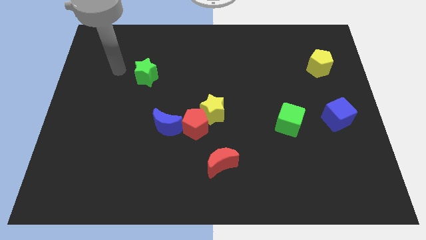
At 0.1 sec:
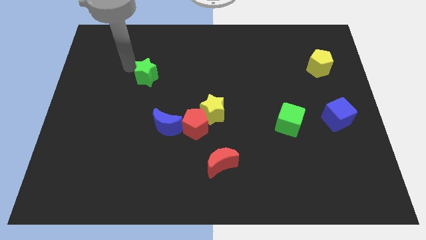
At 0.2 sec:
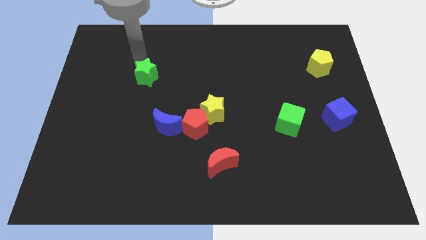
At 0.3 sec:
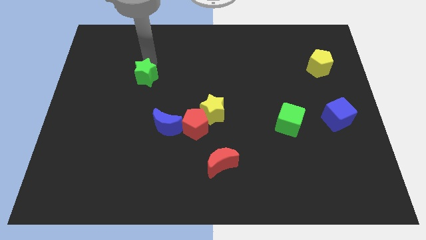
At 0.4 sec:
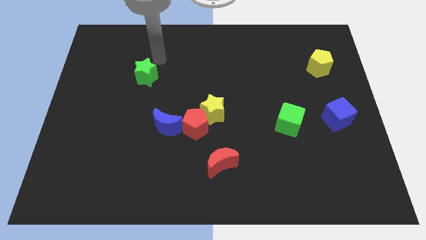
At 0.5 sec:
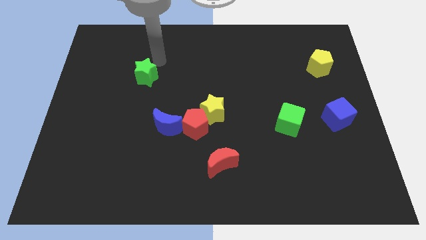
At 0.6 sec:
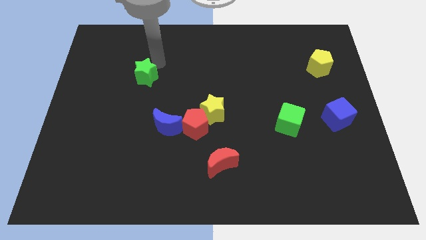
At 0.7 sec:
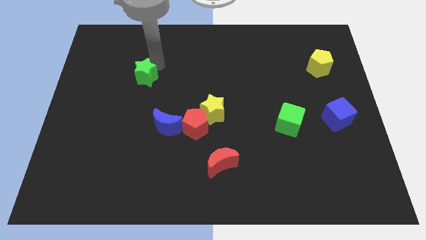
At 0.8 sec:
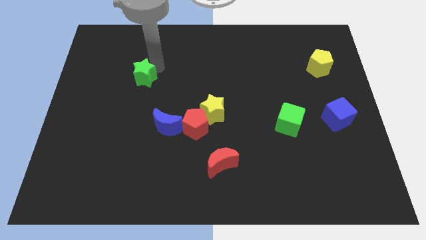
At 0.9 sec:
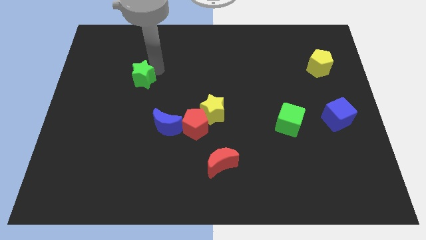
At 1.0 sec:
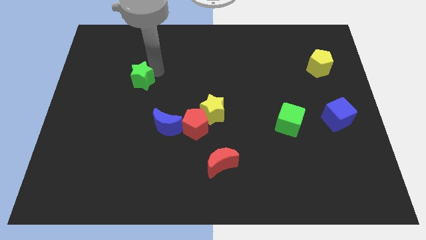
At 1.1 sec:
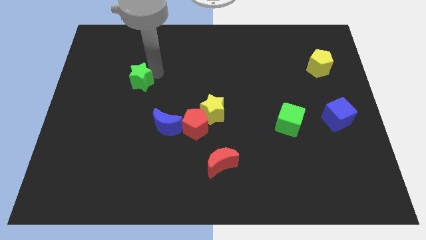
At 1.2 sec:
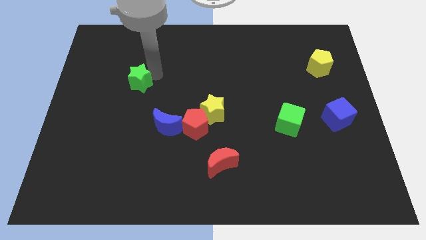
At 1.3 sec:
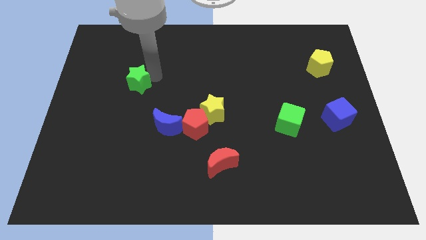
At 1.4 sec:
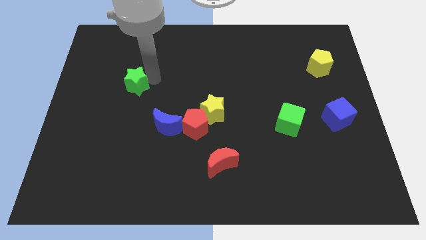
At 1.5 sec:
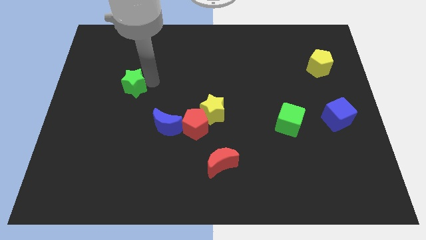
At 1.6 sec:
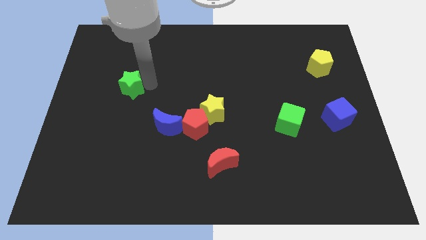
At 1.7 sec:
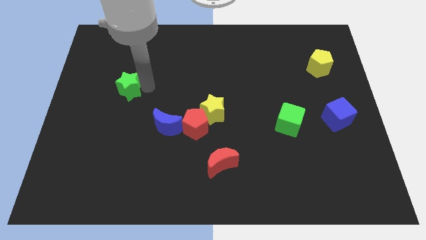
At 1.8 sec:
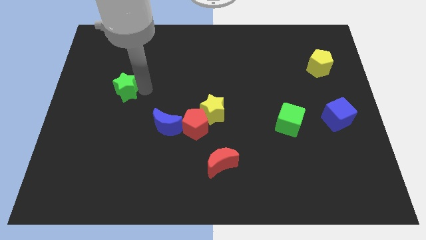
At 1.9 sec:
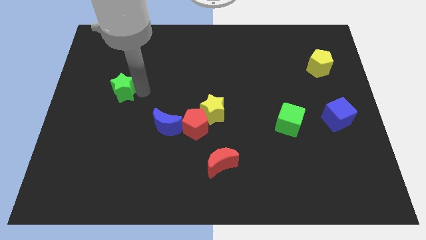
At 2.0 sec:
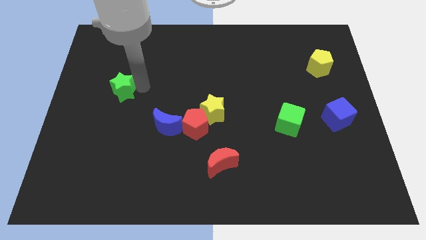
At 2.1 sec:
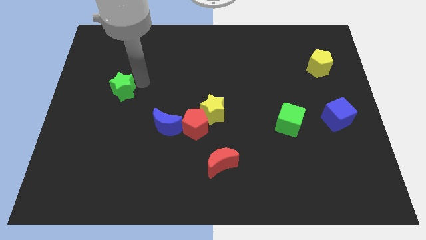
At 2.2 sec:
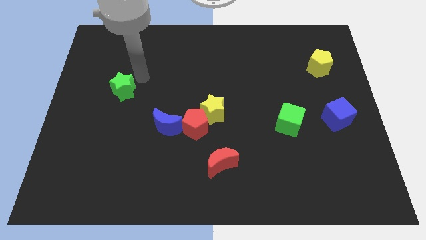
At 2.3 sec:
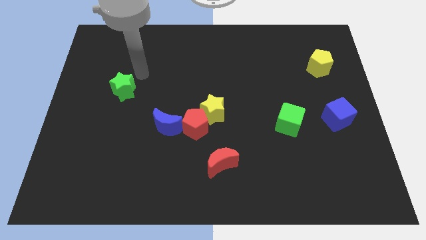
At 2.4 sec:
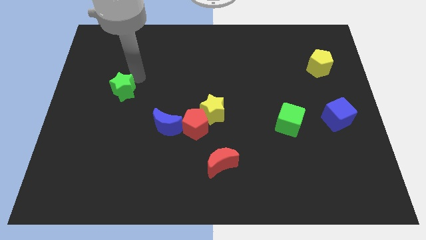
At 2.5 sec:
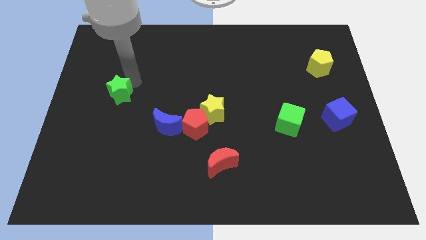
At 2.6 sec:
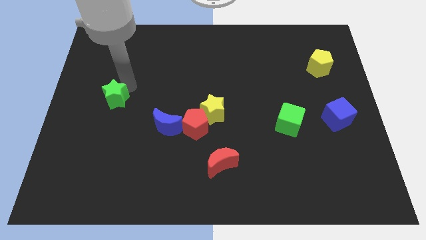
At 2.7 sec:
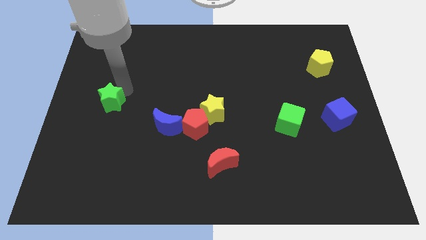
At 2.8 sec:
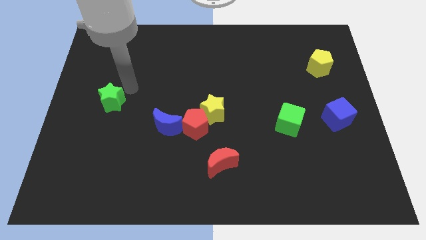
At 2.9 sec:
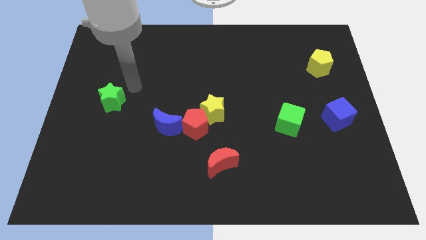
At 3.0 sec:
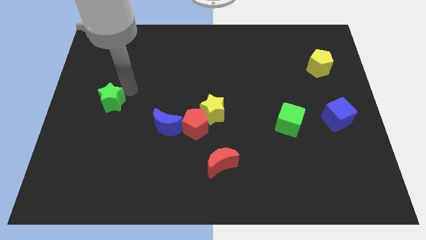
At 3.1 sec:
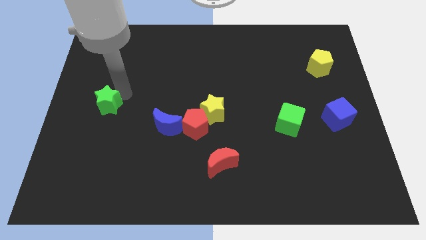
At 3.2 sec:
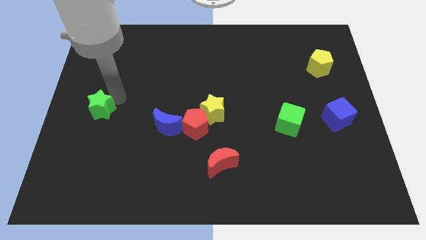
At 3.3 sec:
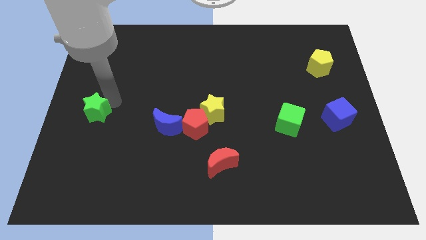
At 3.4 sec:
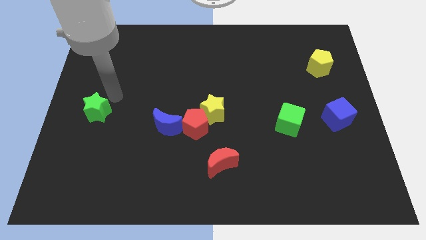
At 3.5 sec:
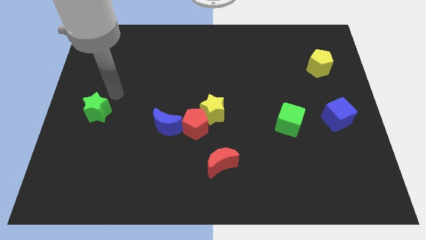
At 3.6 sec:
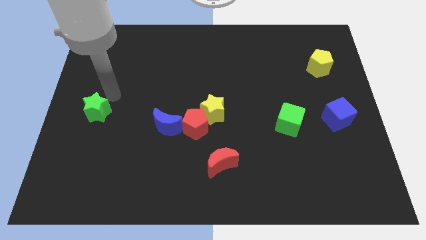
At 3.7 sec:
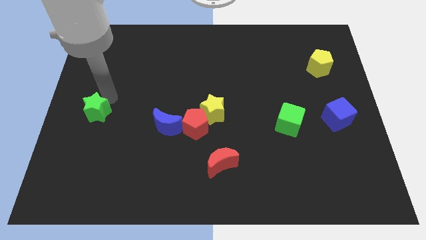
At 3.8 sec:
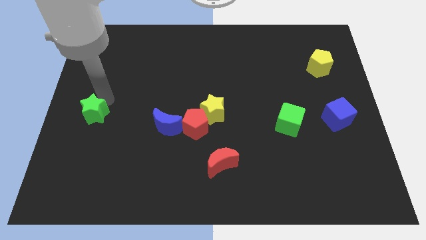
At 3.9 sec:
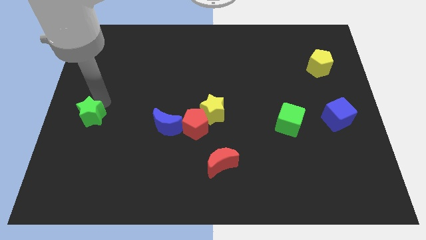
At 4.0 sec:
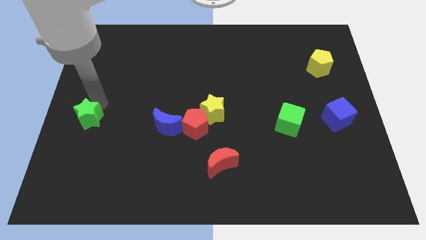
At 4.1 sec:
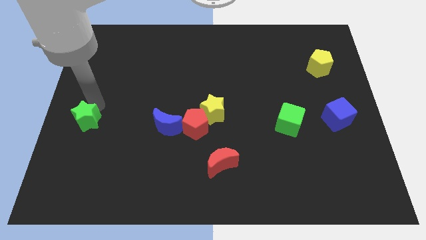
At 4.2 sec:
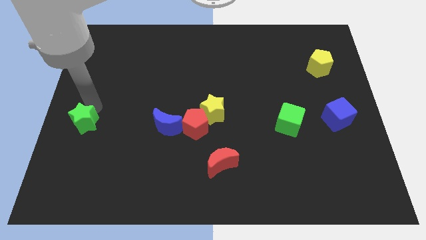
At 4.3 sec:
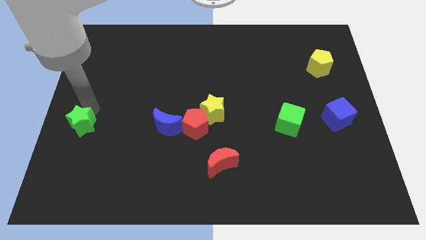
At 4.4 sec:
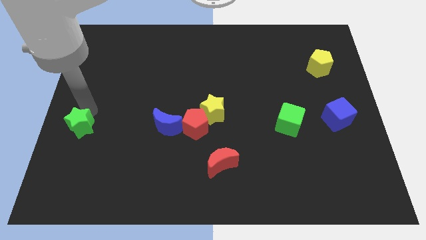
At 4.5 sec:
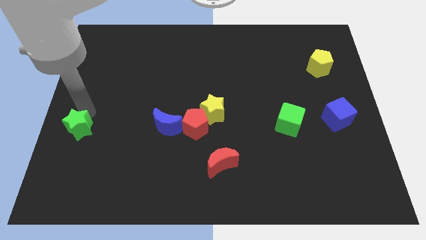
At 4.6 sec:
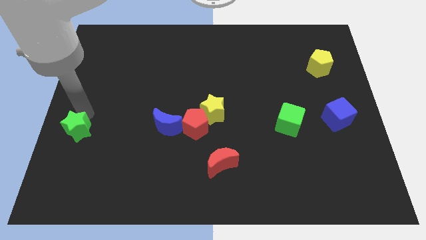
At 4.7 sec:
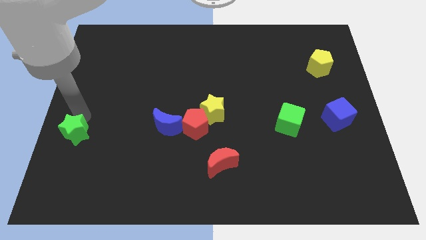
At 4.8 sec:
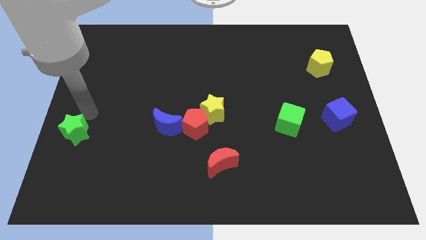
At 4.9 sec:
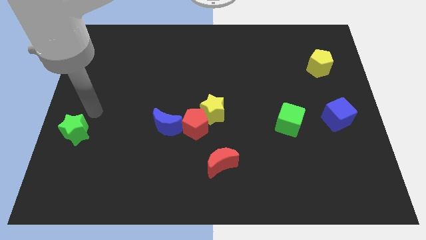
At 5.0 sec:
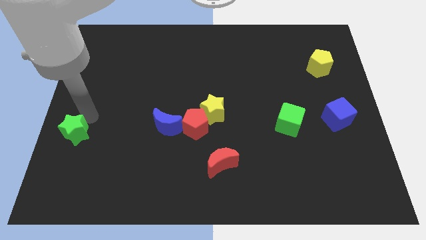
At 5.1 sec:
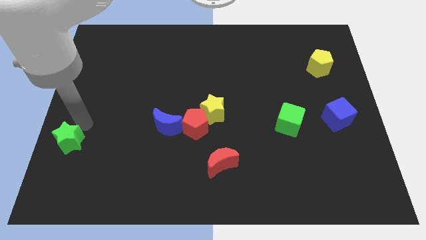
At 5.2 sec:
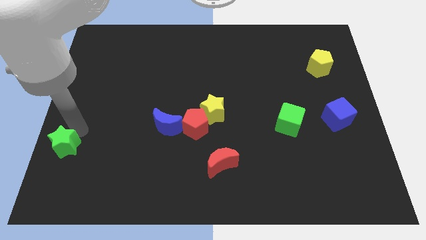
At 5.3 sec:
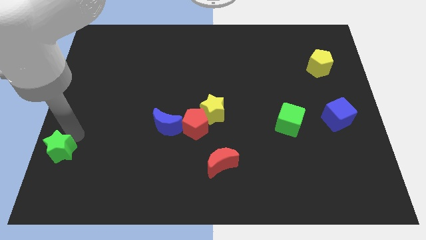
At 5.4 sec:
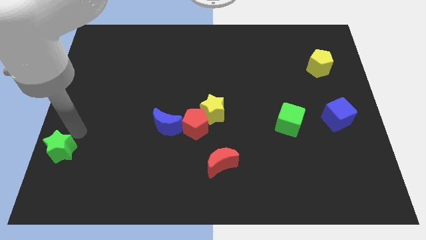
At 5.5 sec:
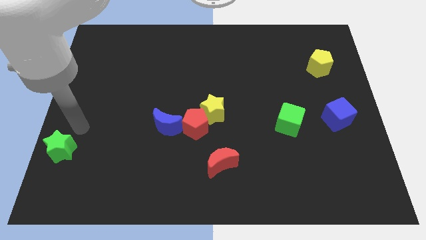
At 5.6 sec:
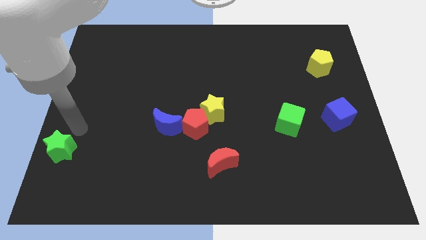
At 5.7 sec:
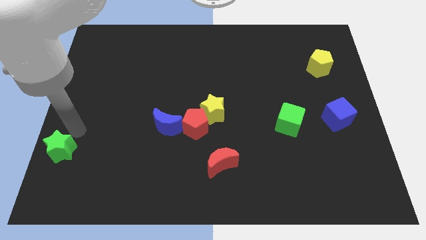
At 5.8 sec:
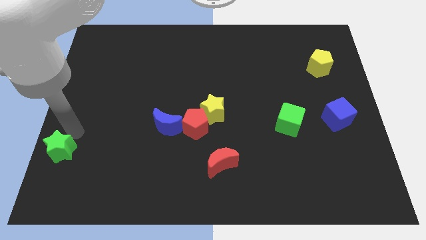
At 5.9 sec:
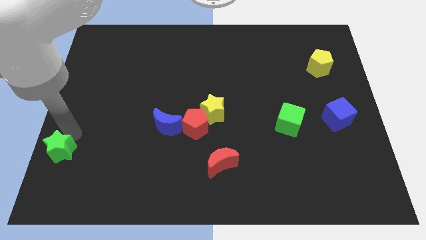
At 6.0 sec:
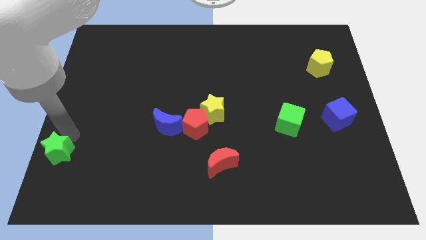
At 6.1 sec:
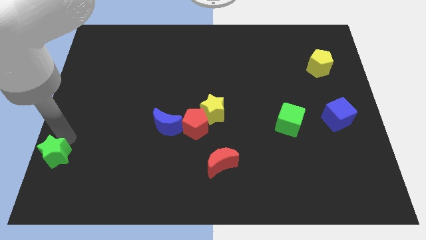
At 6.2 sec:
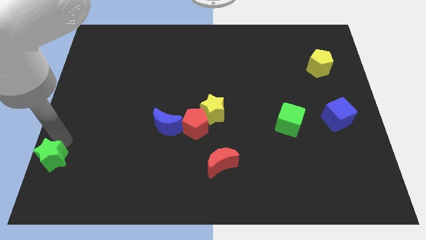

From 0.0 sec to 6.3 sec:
slide the green star to the bottom left
